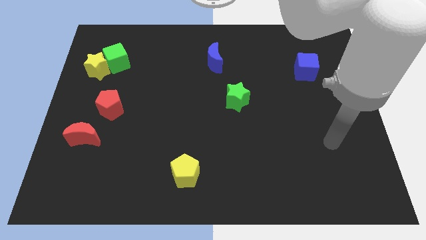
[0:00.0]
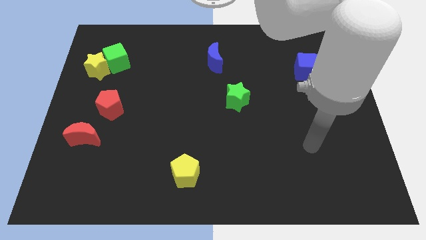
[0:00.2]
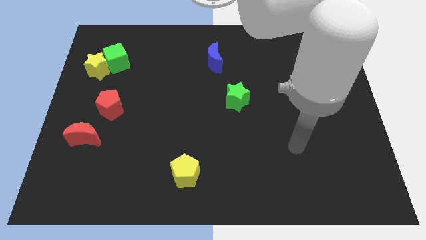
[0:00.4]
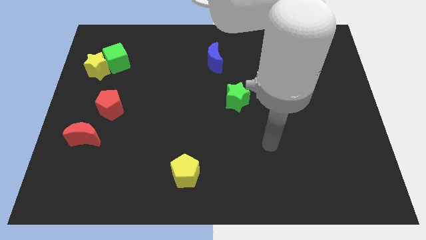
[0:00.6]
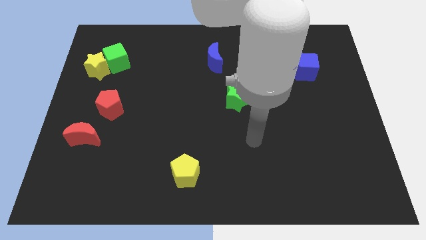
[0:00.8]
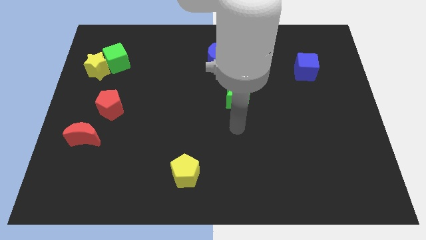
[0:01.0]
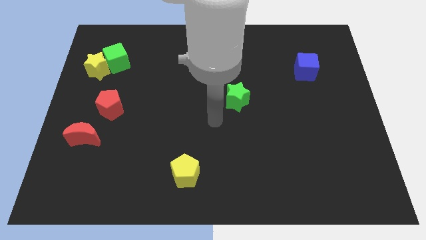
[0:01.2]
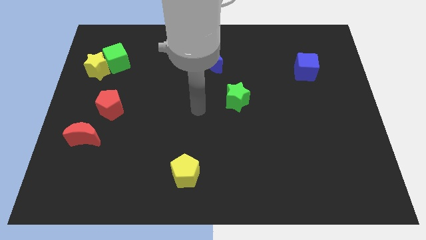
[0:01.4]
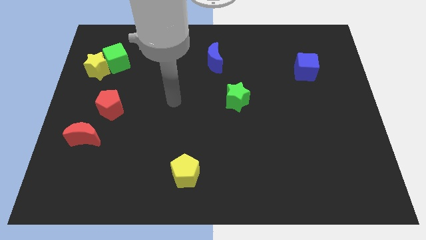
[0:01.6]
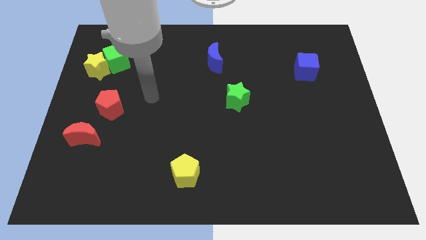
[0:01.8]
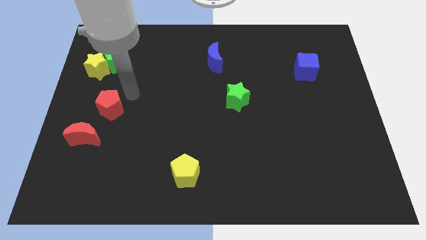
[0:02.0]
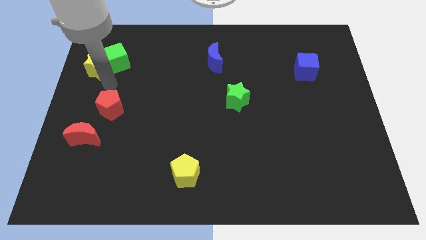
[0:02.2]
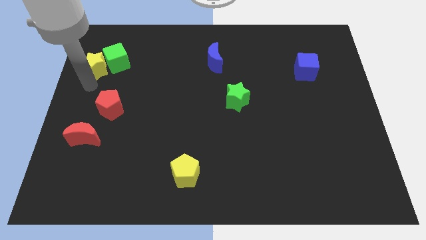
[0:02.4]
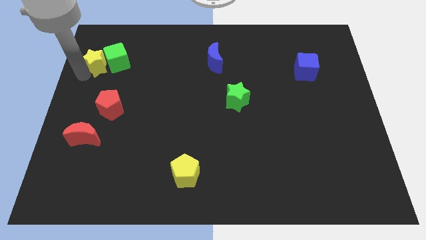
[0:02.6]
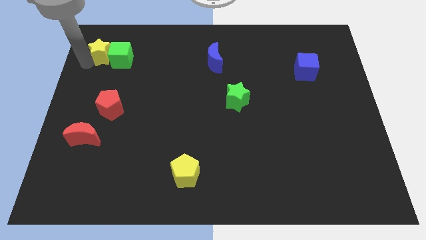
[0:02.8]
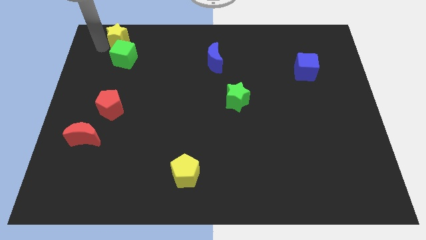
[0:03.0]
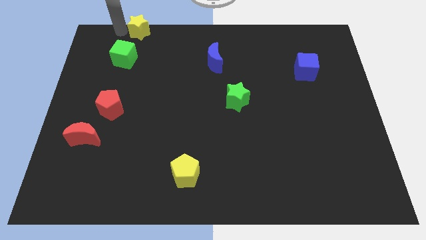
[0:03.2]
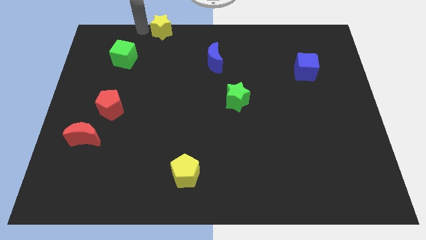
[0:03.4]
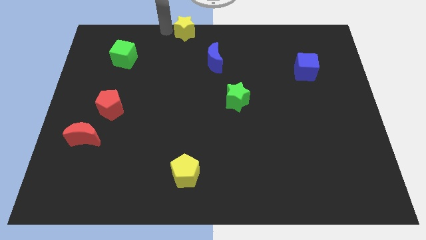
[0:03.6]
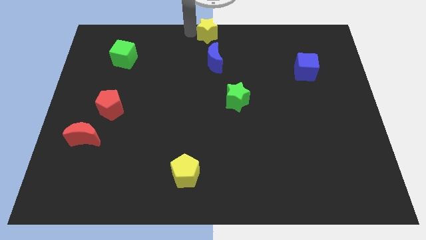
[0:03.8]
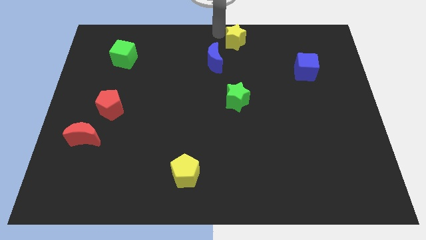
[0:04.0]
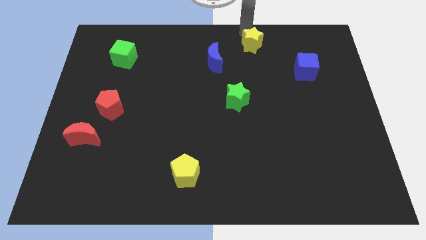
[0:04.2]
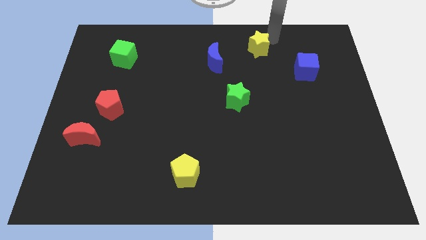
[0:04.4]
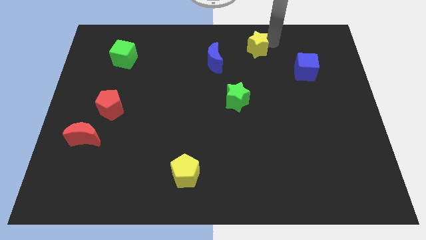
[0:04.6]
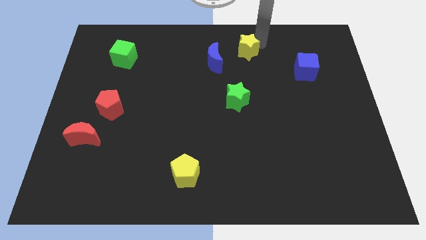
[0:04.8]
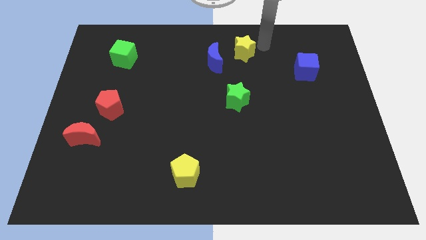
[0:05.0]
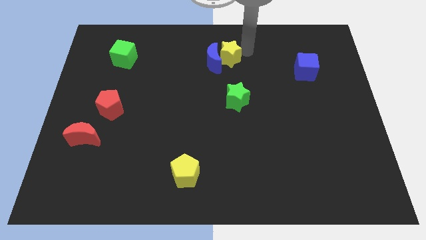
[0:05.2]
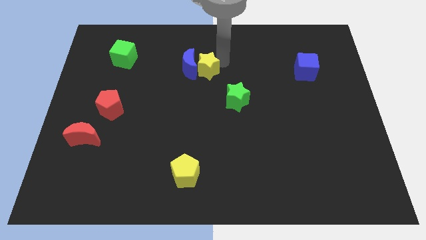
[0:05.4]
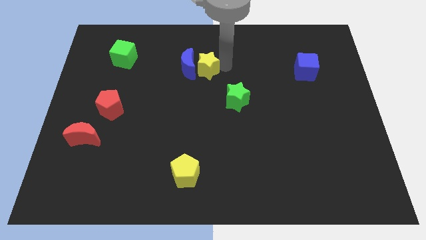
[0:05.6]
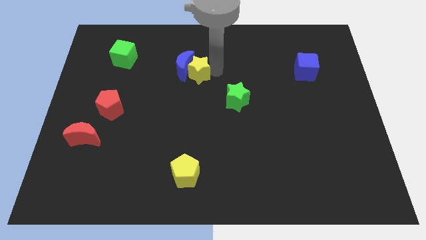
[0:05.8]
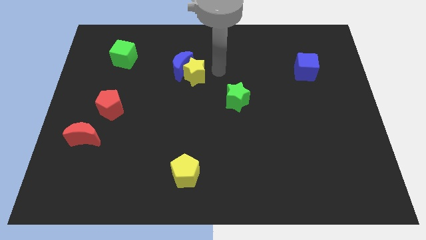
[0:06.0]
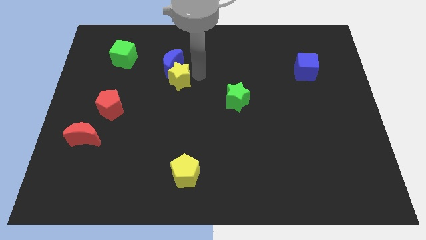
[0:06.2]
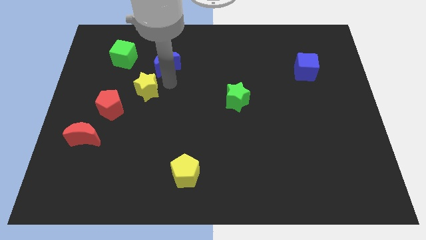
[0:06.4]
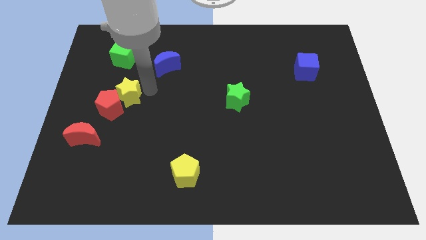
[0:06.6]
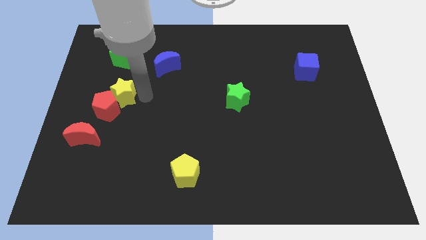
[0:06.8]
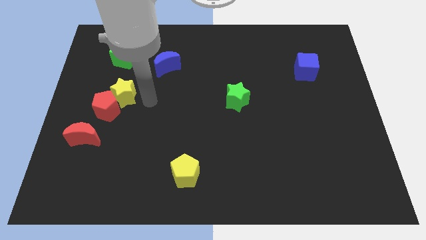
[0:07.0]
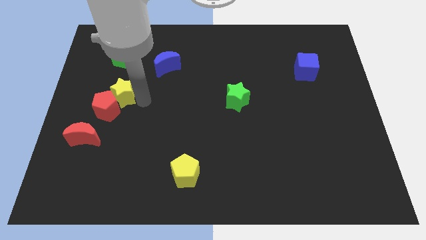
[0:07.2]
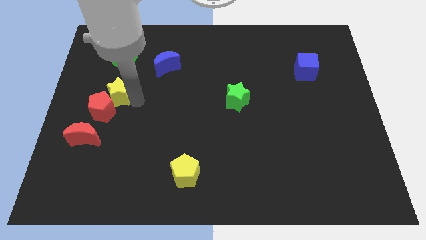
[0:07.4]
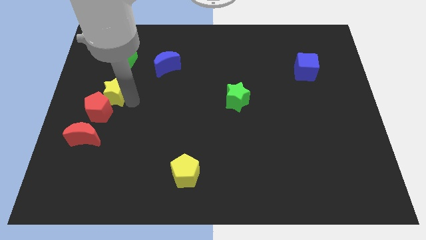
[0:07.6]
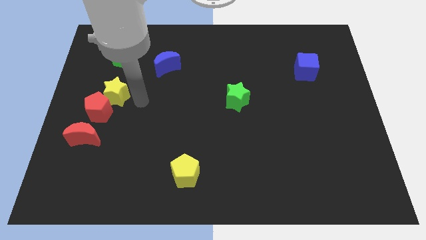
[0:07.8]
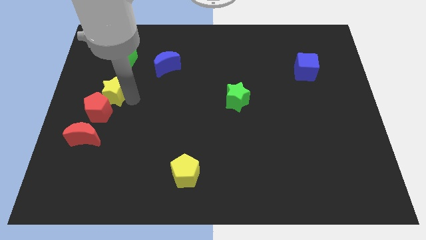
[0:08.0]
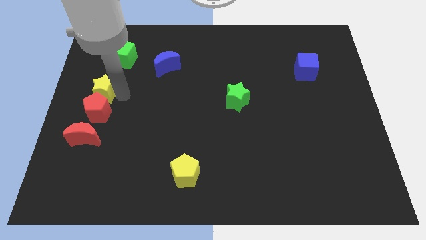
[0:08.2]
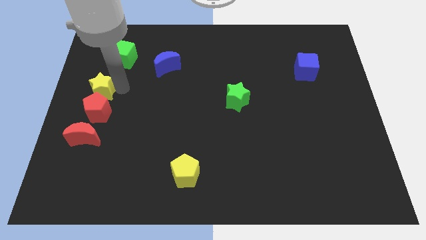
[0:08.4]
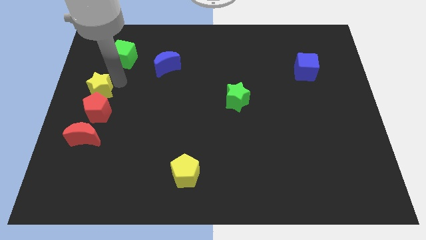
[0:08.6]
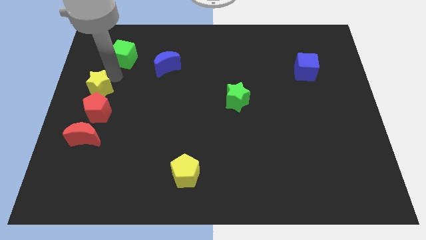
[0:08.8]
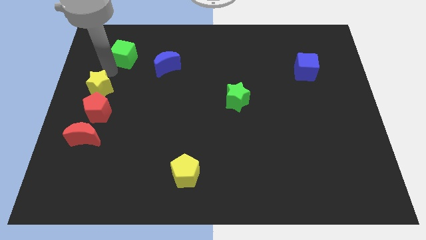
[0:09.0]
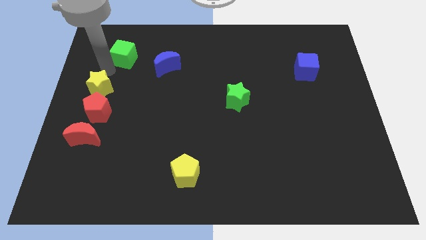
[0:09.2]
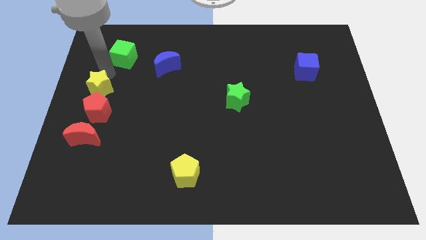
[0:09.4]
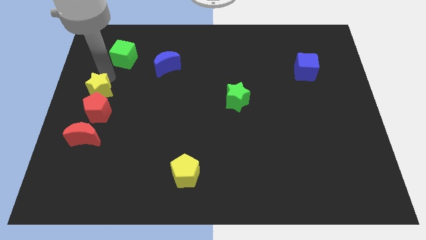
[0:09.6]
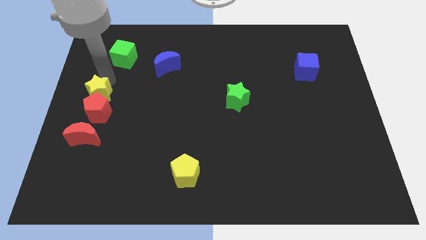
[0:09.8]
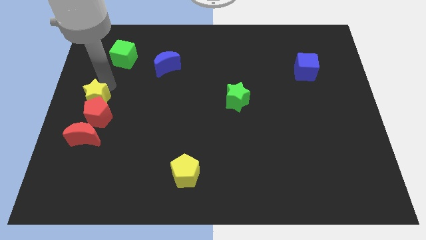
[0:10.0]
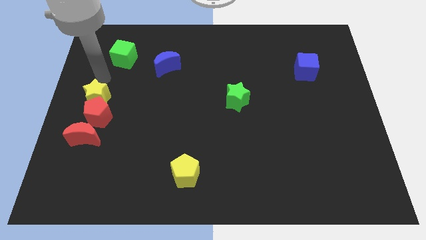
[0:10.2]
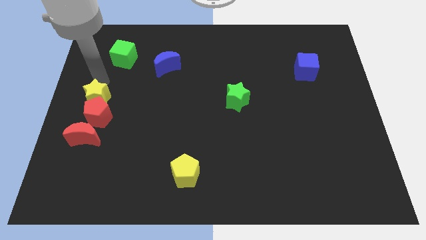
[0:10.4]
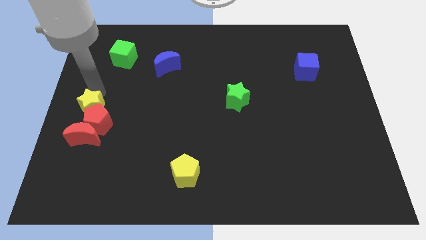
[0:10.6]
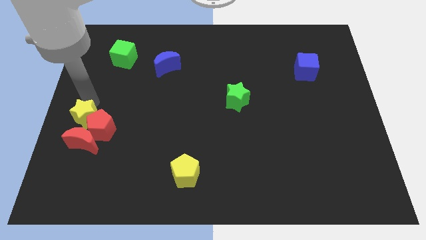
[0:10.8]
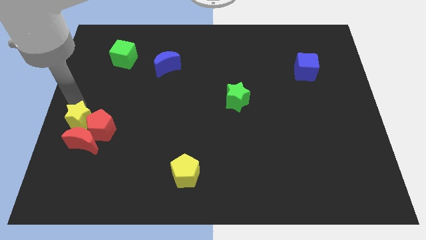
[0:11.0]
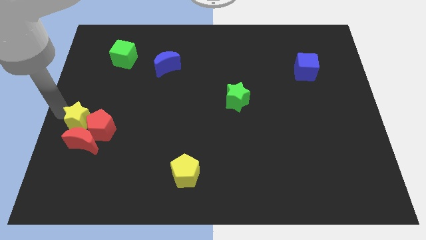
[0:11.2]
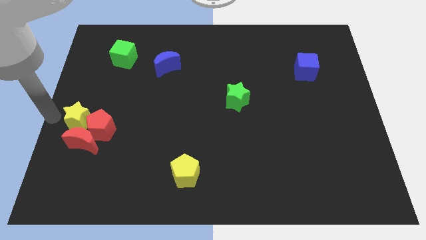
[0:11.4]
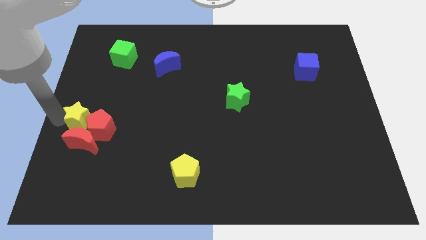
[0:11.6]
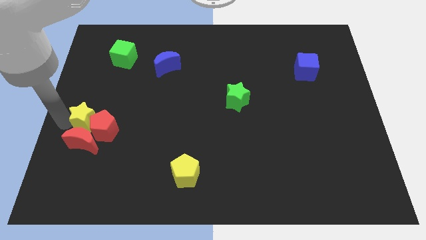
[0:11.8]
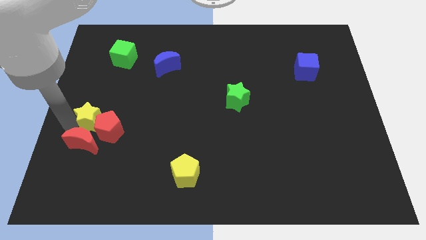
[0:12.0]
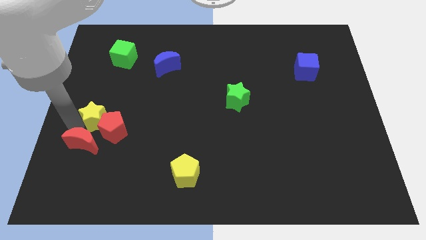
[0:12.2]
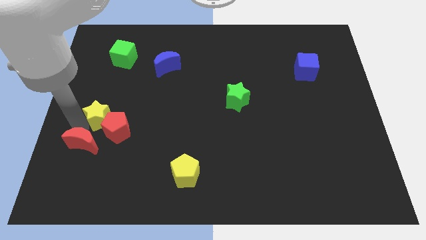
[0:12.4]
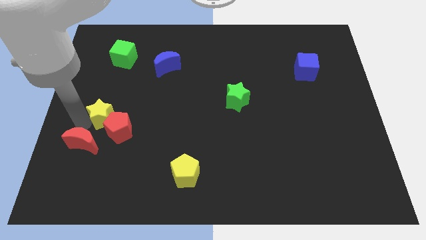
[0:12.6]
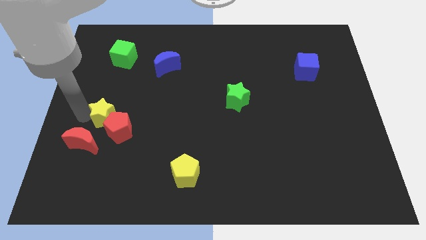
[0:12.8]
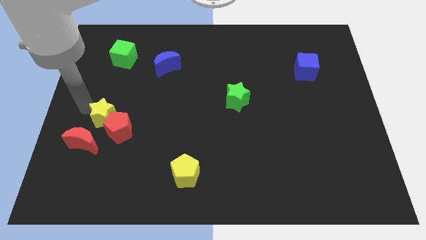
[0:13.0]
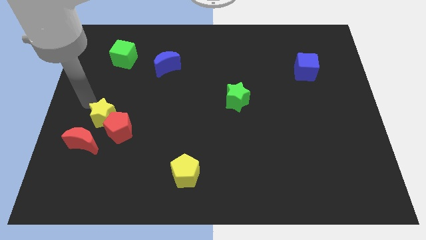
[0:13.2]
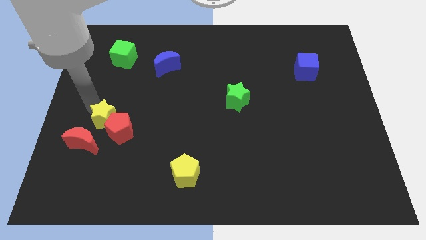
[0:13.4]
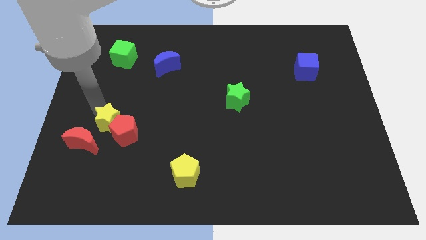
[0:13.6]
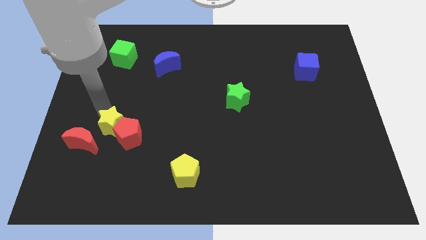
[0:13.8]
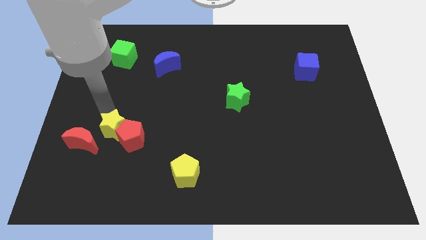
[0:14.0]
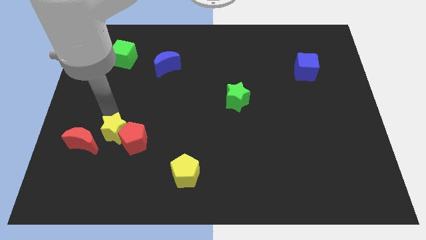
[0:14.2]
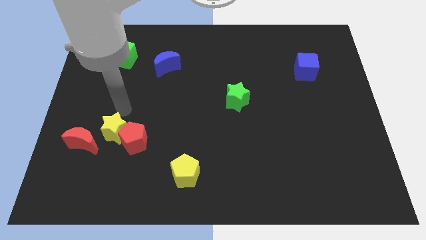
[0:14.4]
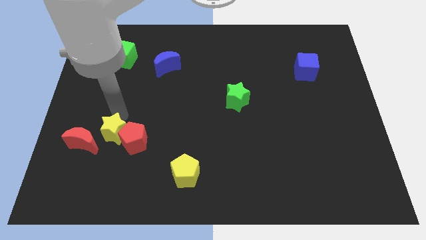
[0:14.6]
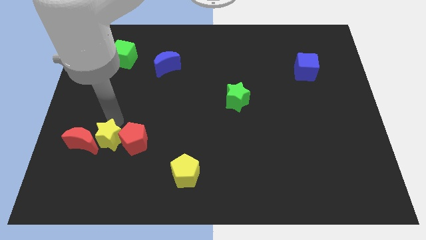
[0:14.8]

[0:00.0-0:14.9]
move the yellow star to the bottom right side of the red moon

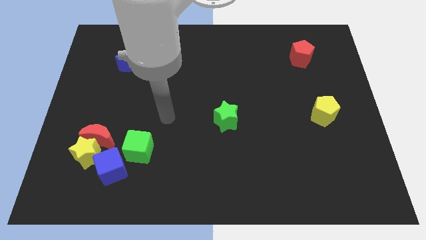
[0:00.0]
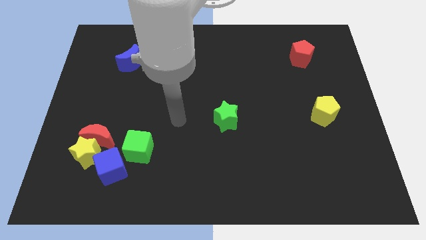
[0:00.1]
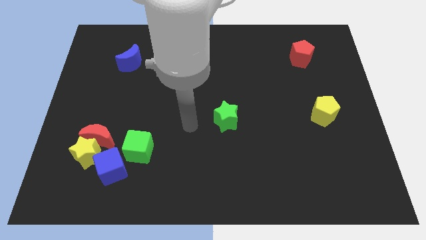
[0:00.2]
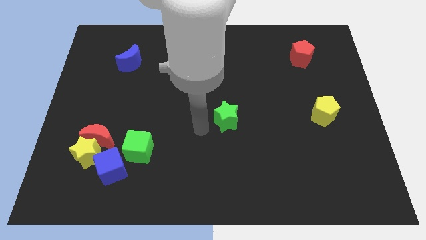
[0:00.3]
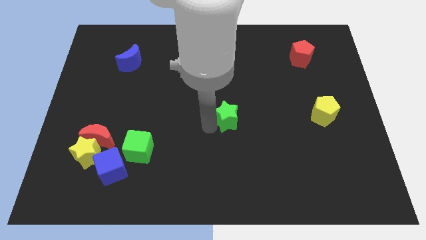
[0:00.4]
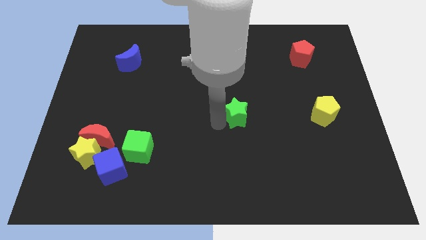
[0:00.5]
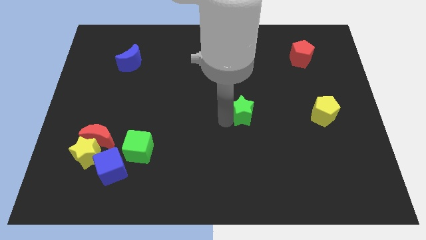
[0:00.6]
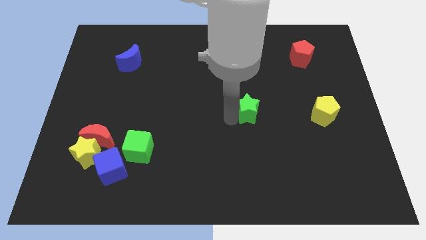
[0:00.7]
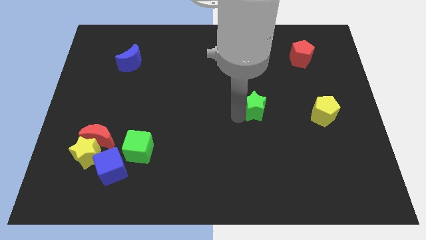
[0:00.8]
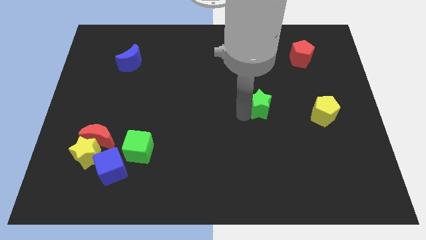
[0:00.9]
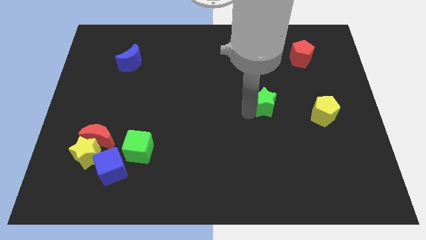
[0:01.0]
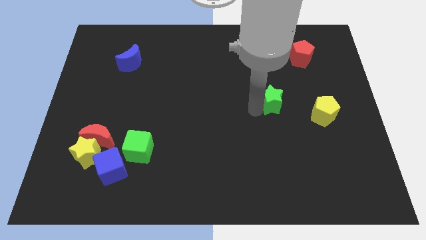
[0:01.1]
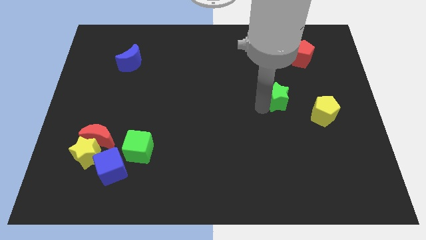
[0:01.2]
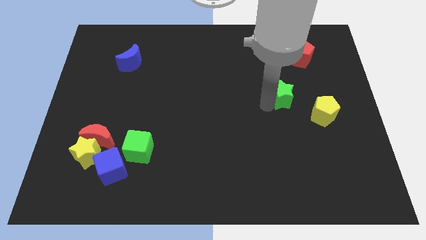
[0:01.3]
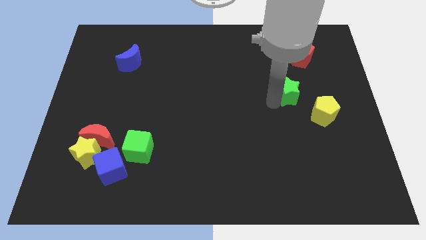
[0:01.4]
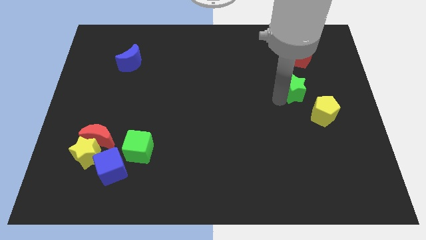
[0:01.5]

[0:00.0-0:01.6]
put the green star to the bottom of the red pentagon
